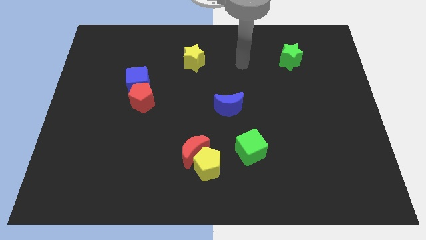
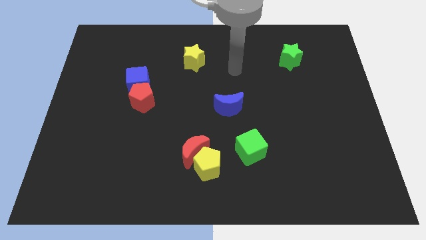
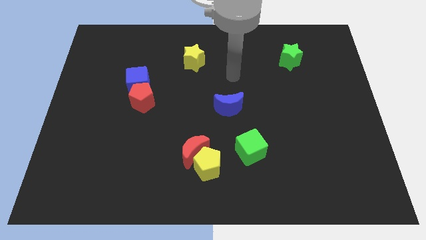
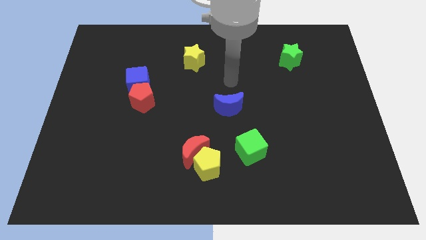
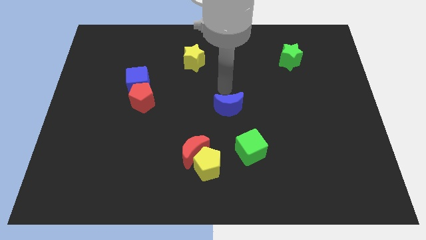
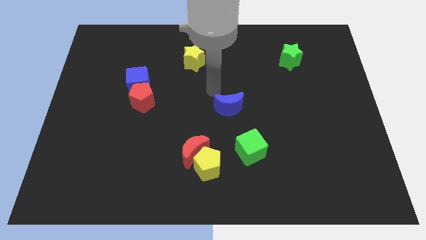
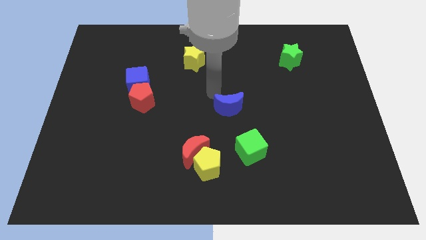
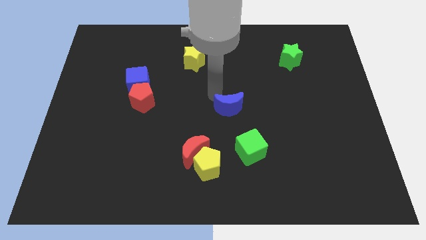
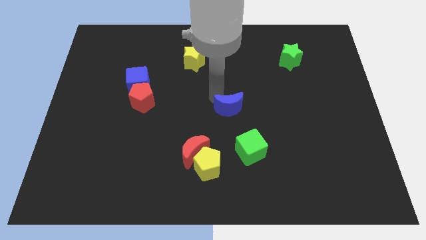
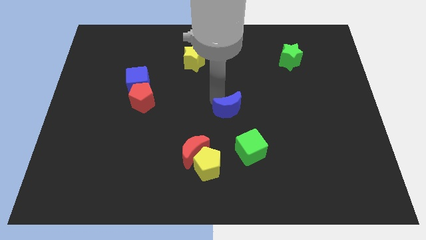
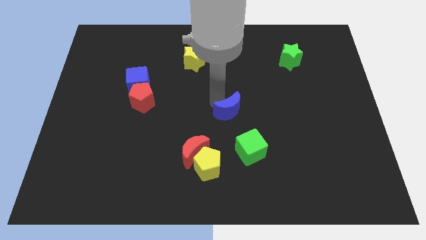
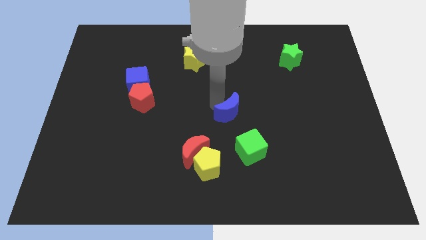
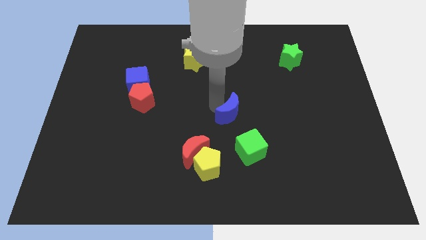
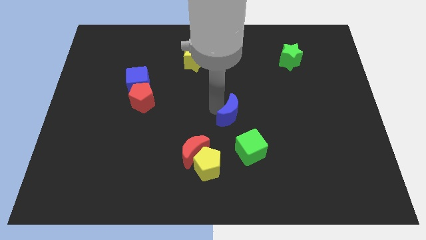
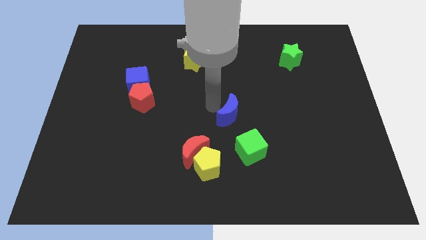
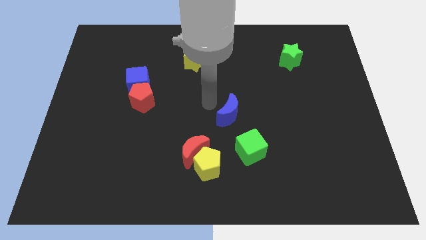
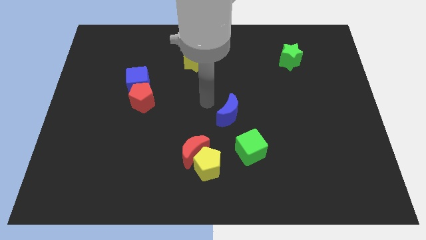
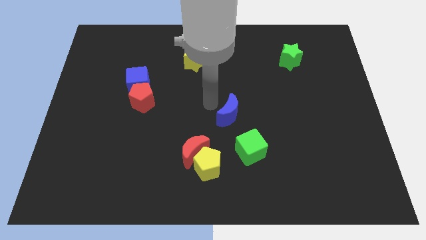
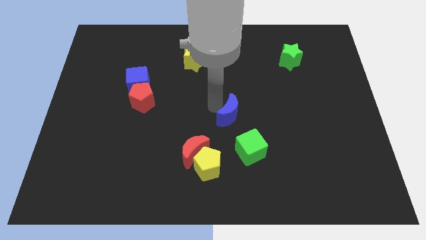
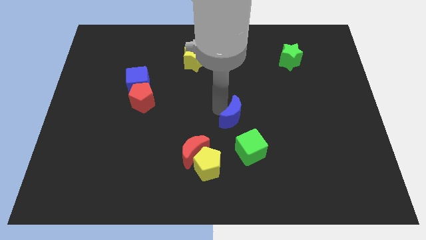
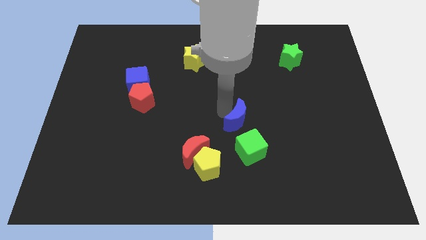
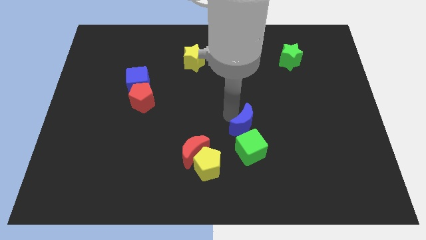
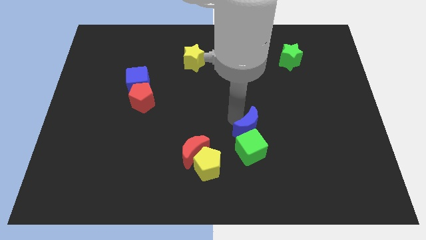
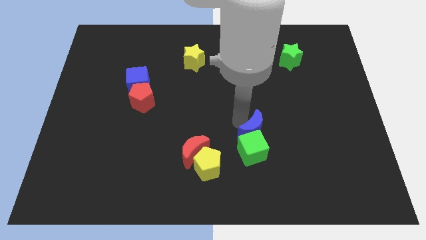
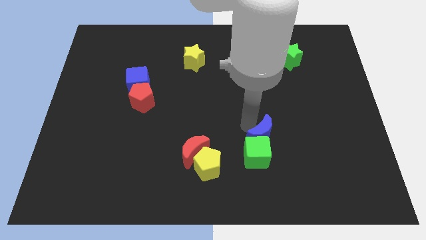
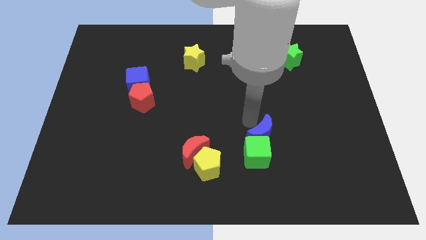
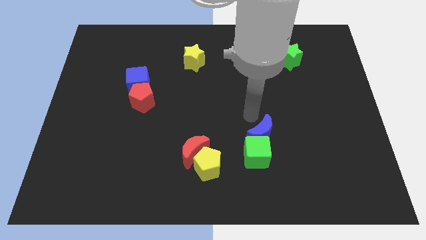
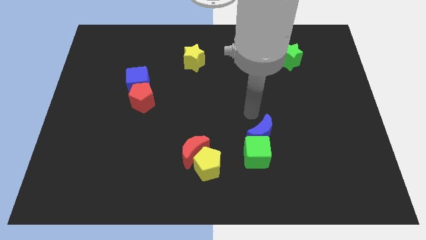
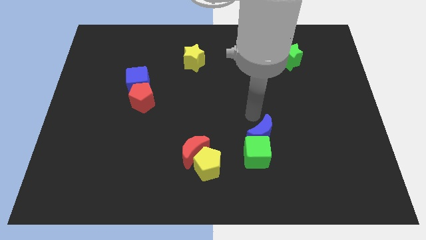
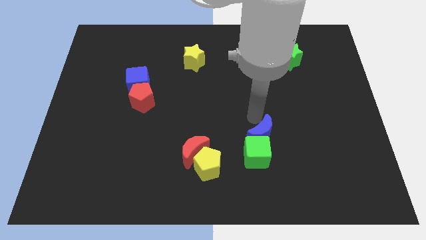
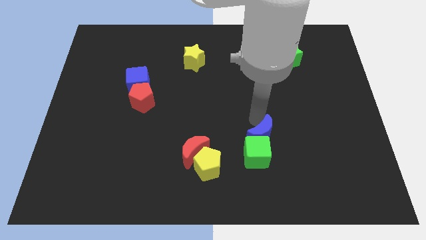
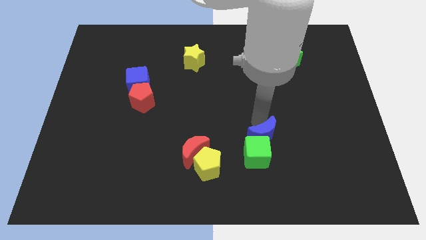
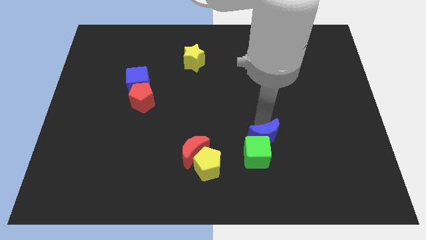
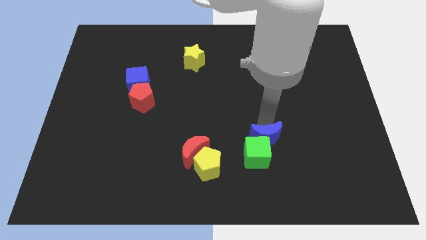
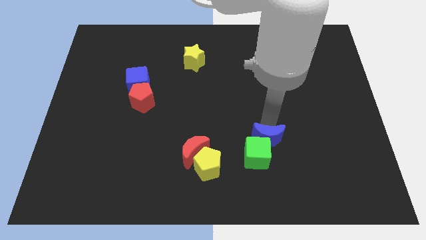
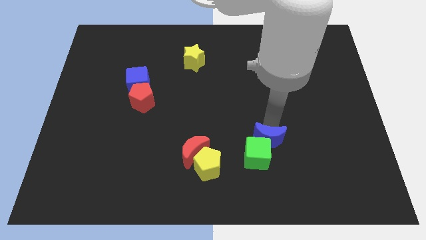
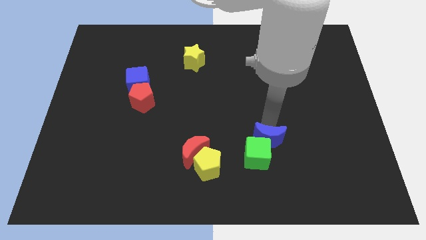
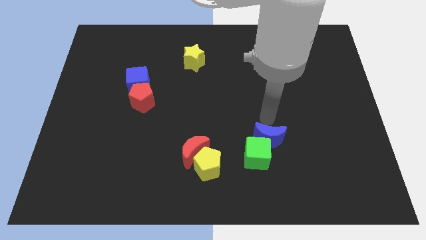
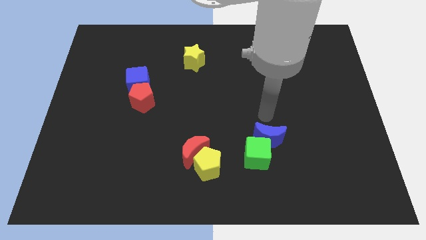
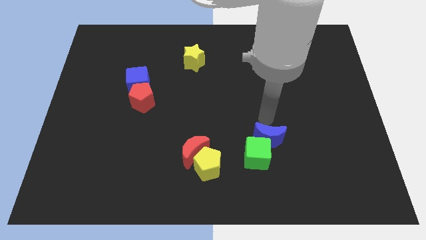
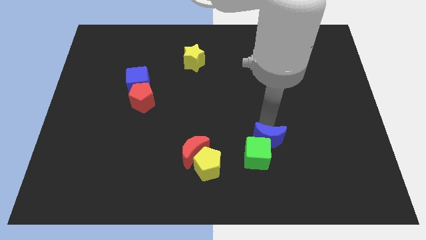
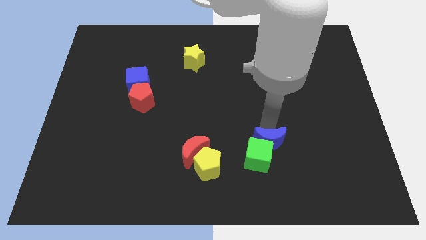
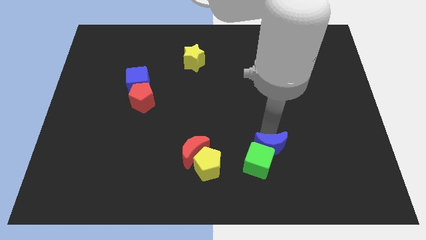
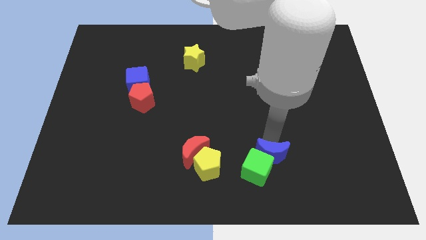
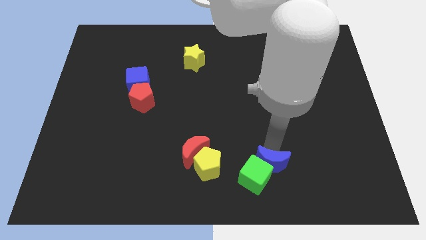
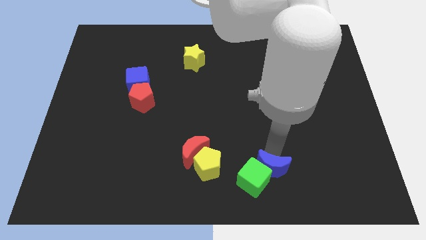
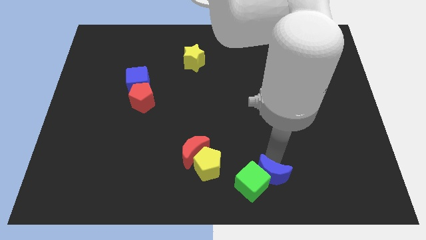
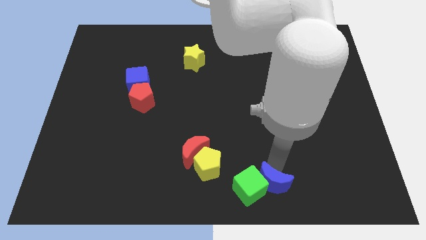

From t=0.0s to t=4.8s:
slide the blue moon to the bottom side

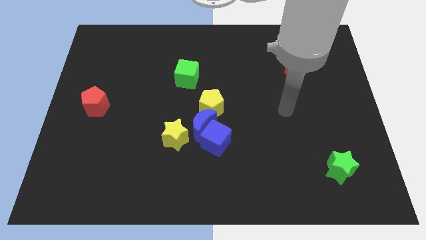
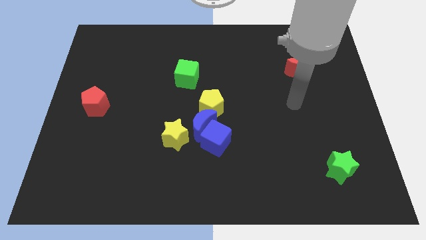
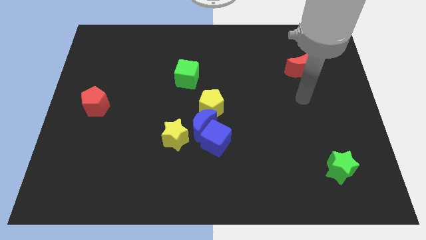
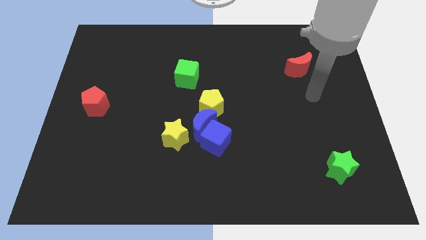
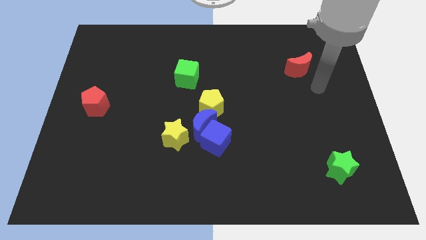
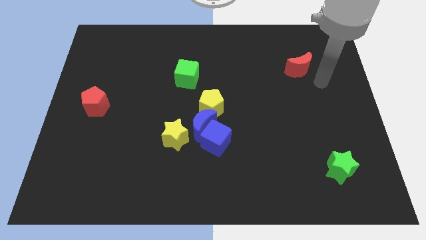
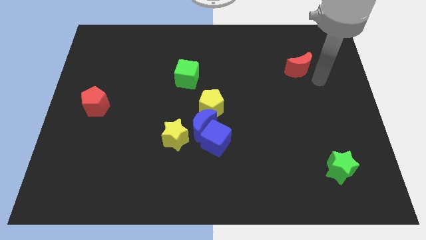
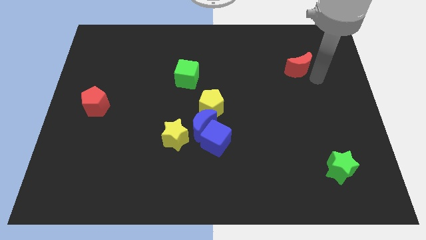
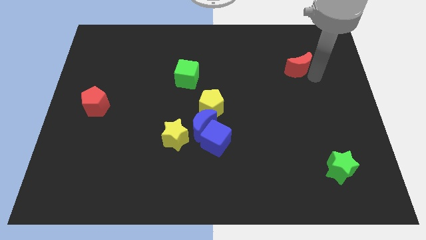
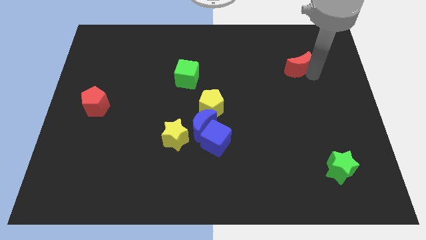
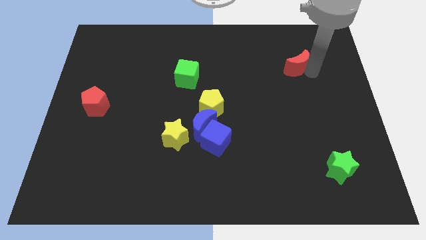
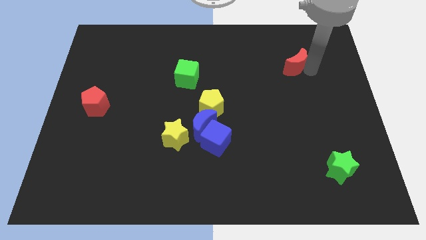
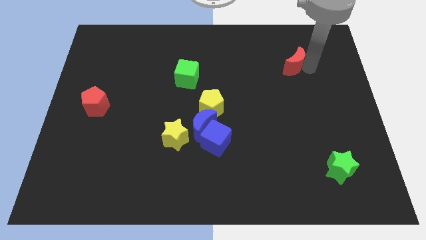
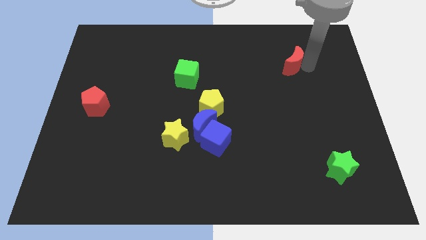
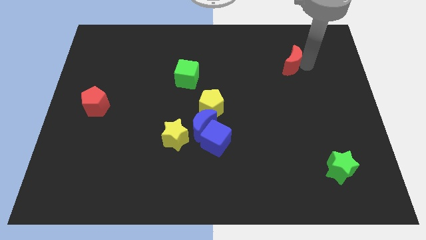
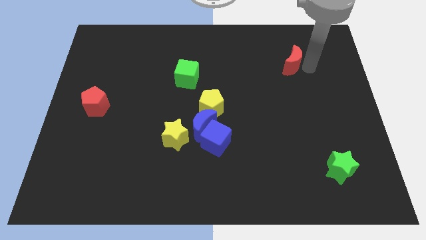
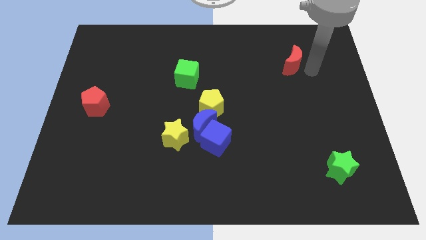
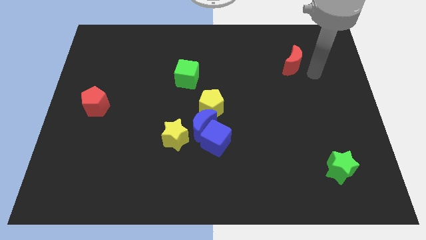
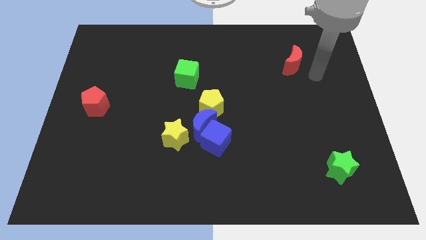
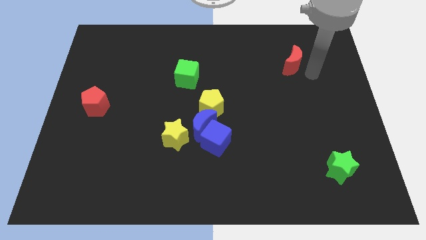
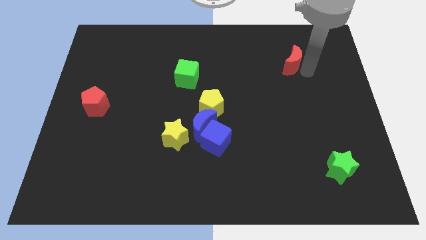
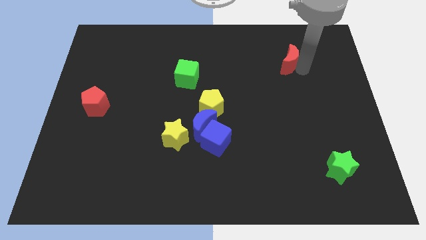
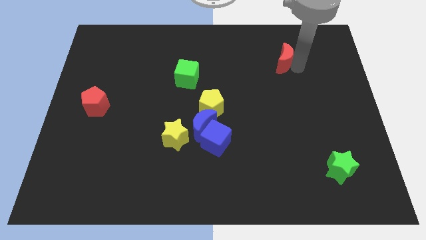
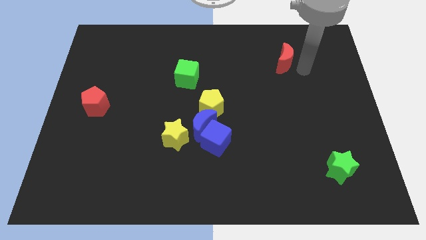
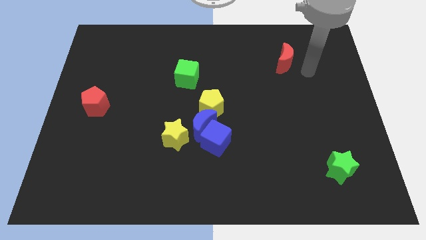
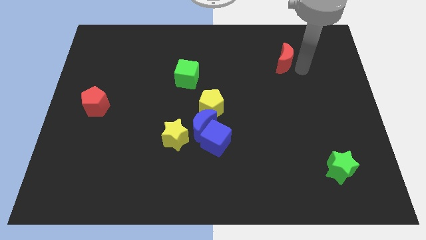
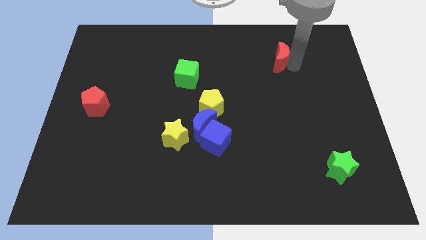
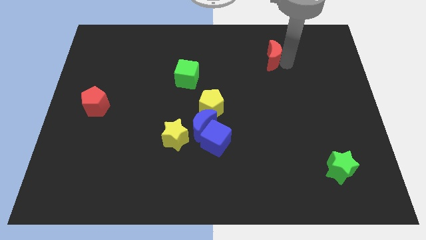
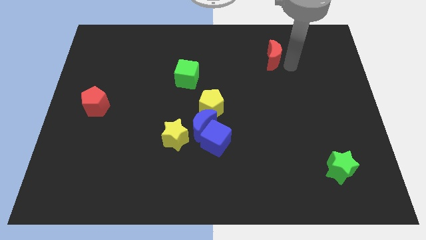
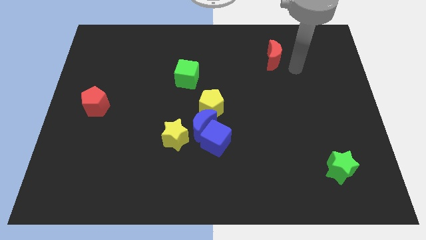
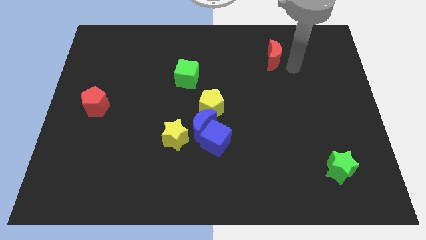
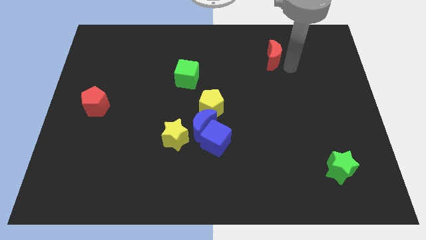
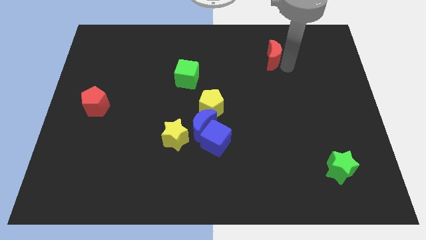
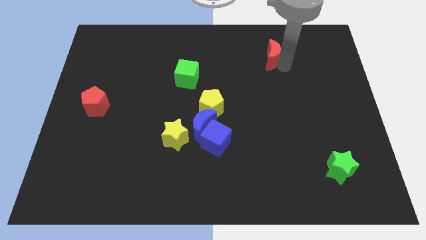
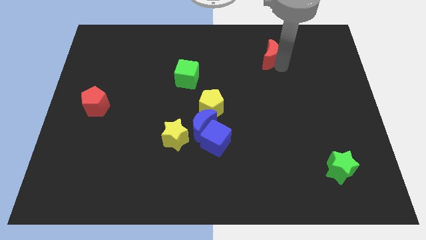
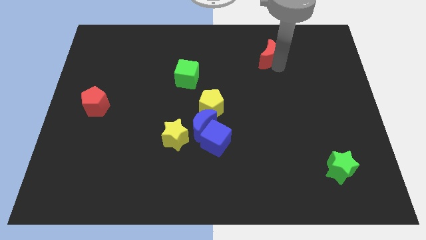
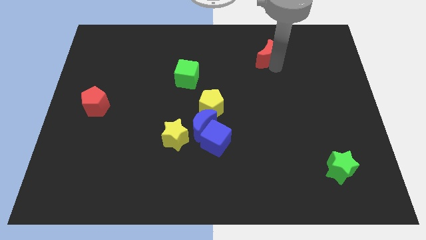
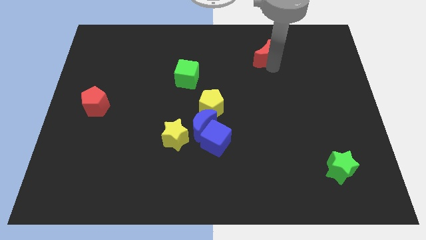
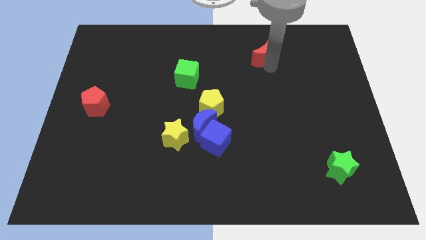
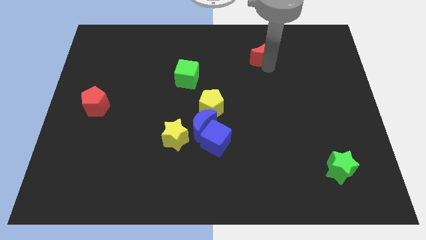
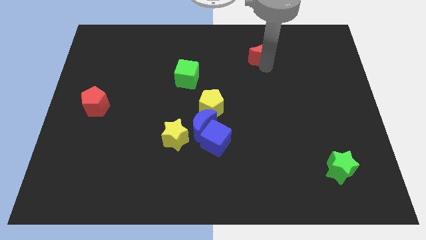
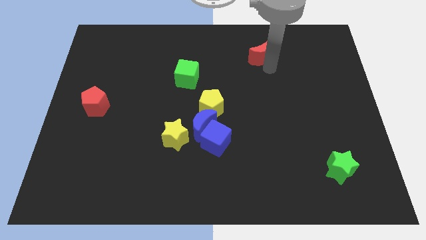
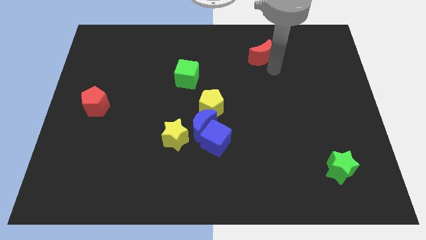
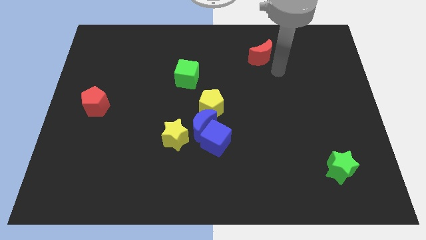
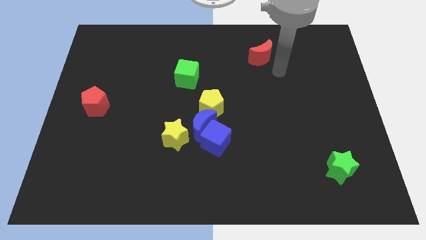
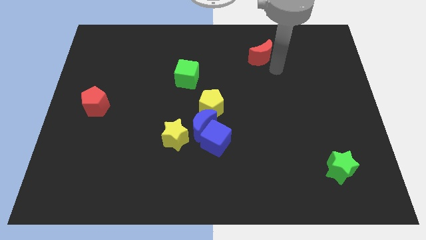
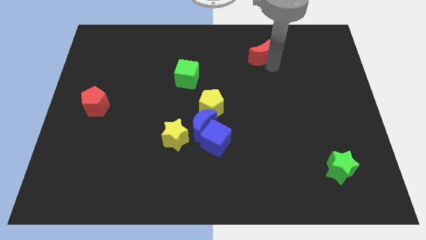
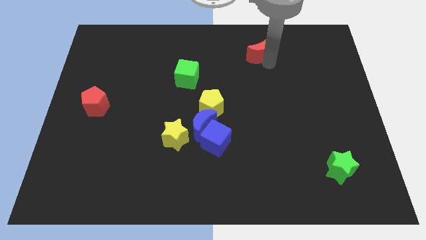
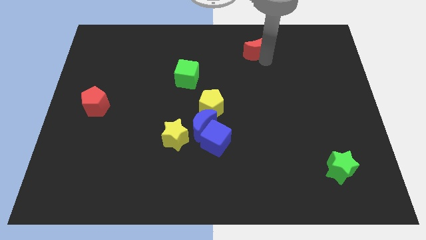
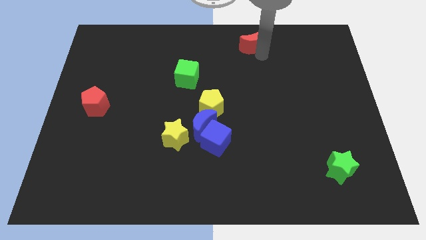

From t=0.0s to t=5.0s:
slide the red moon to the top
